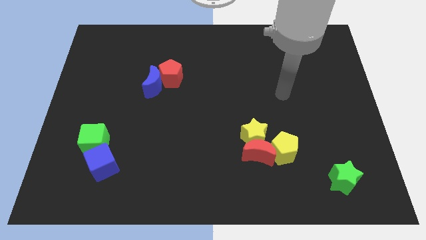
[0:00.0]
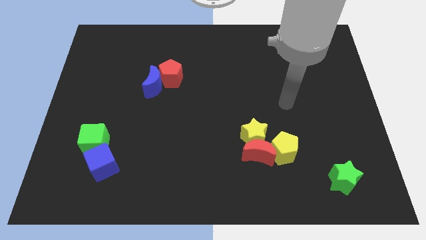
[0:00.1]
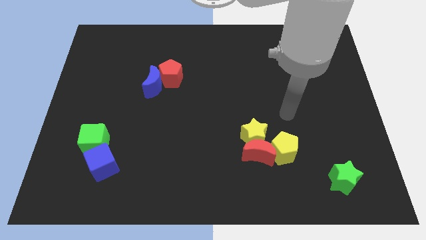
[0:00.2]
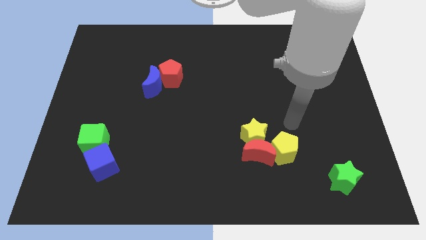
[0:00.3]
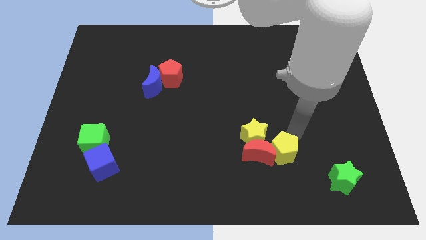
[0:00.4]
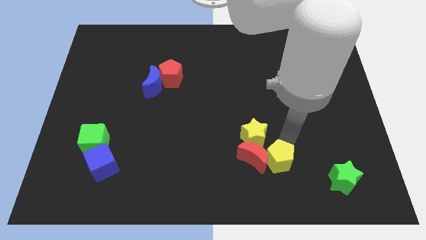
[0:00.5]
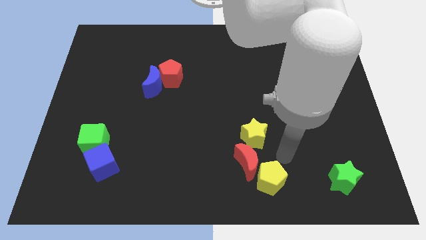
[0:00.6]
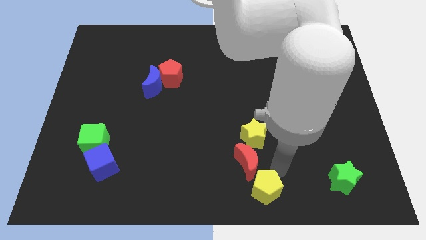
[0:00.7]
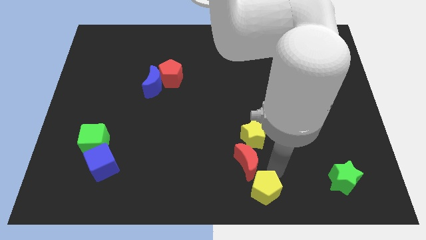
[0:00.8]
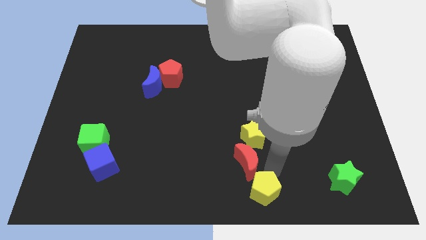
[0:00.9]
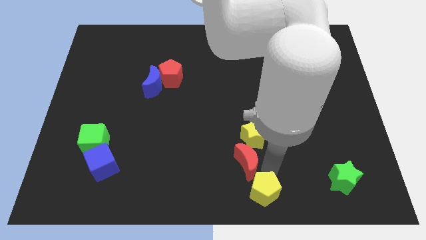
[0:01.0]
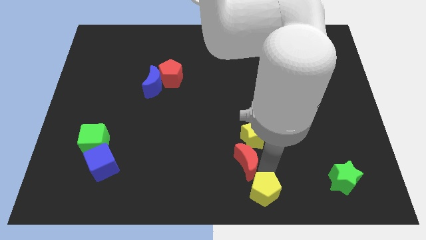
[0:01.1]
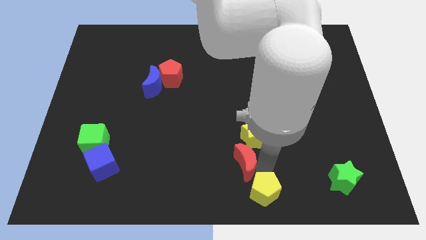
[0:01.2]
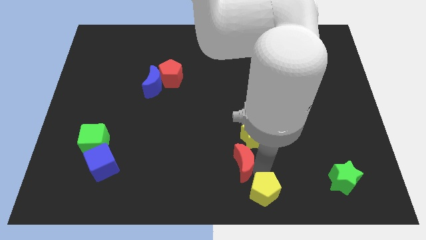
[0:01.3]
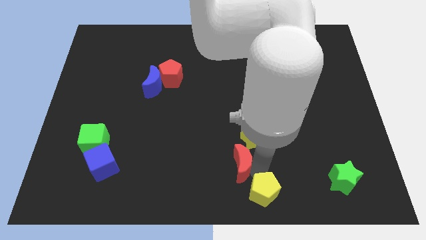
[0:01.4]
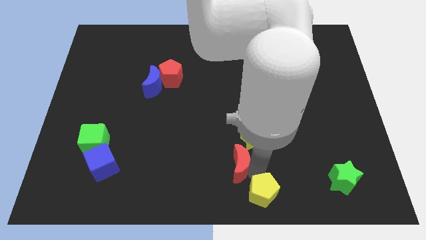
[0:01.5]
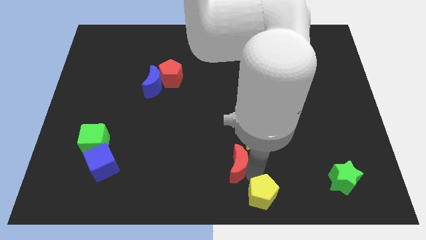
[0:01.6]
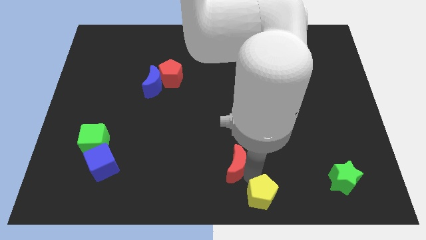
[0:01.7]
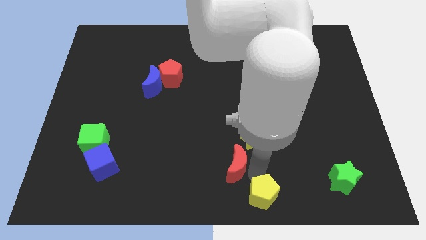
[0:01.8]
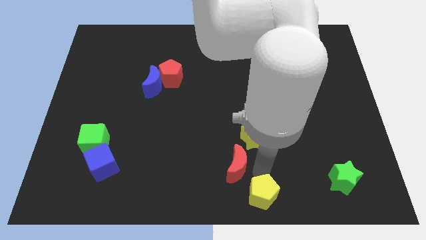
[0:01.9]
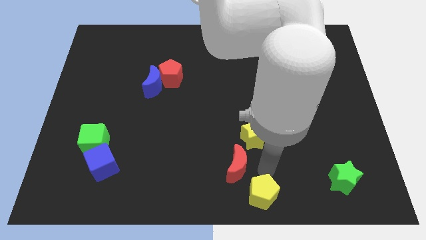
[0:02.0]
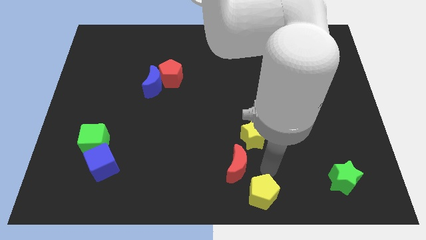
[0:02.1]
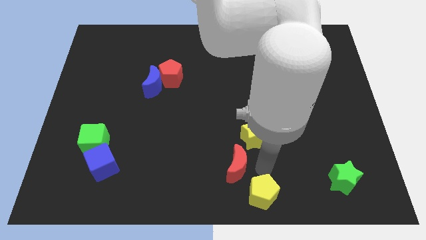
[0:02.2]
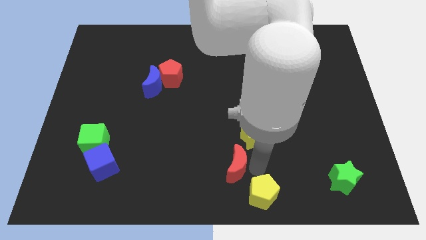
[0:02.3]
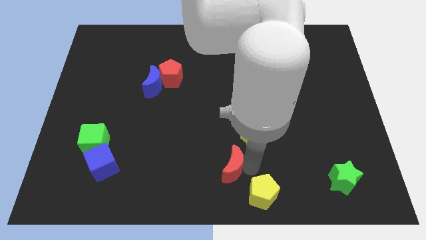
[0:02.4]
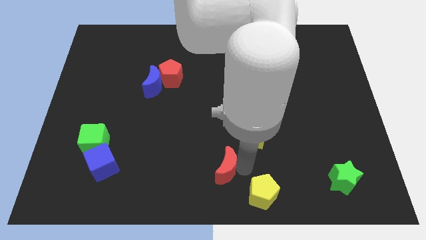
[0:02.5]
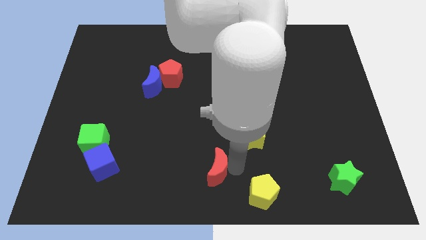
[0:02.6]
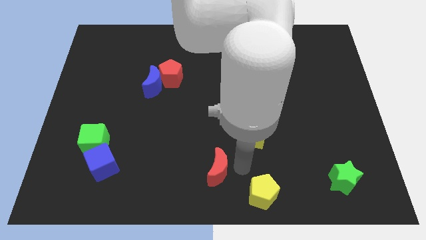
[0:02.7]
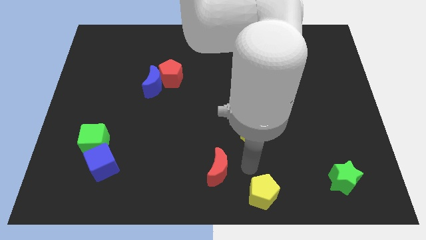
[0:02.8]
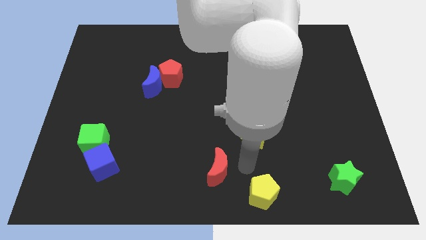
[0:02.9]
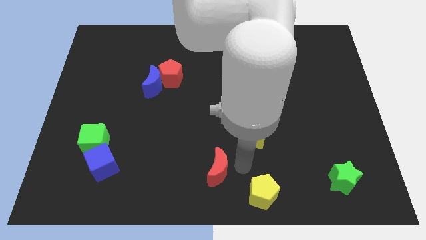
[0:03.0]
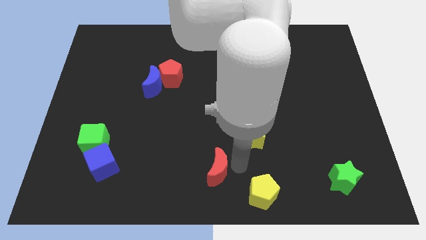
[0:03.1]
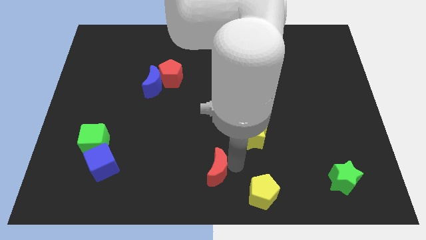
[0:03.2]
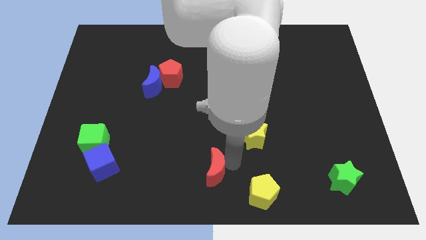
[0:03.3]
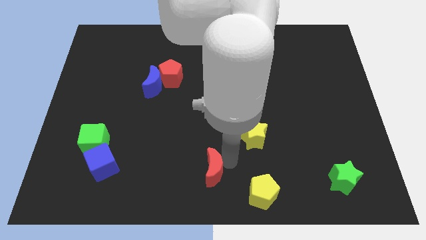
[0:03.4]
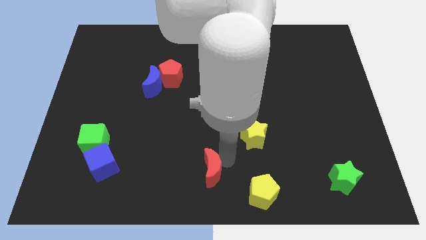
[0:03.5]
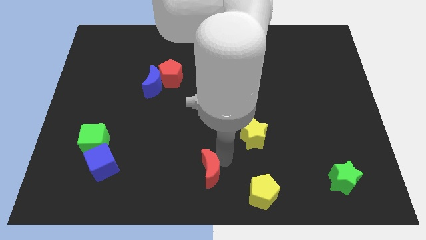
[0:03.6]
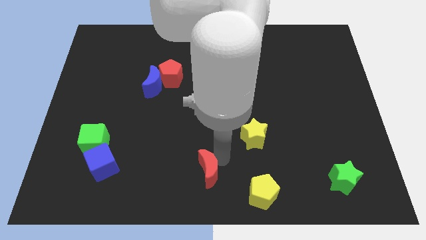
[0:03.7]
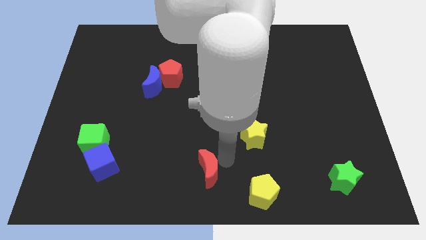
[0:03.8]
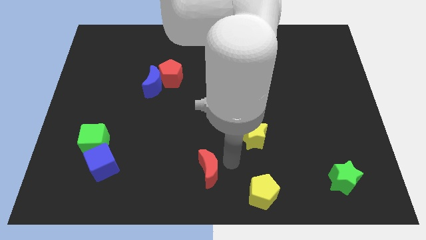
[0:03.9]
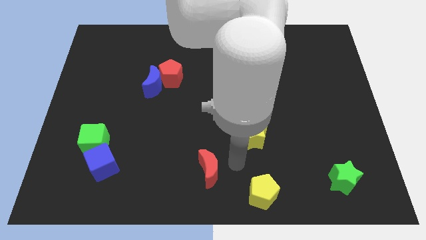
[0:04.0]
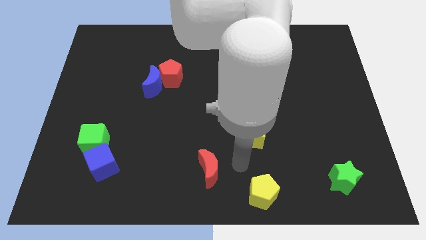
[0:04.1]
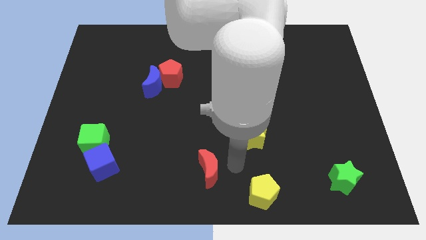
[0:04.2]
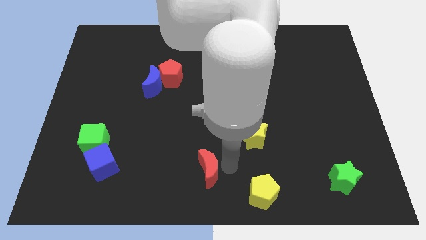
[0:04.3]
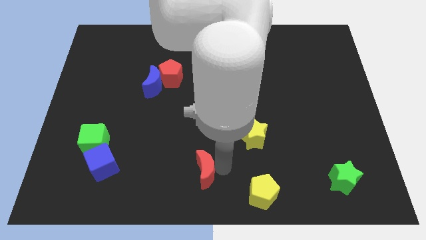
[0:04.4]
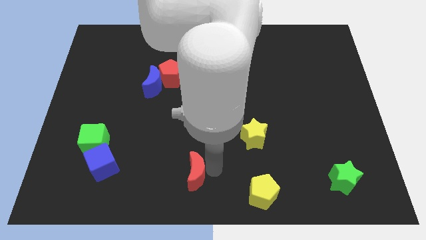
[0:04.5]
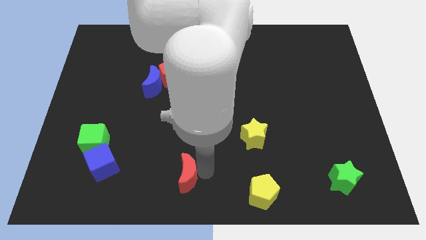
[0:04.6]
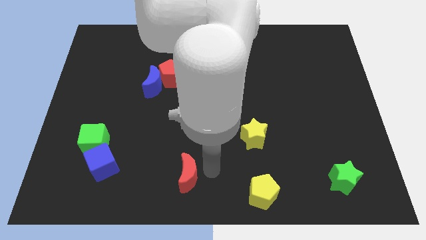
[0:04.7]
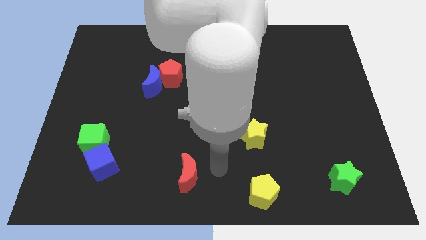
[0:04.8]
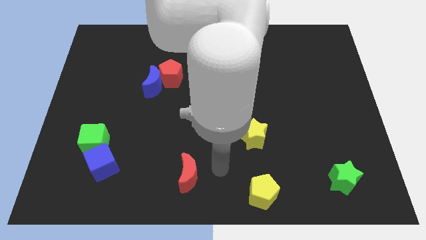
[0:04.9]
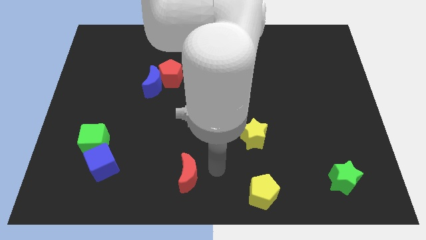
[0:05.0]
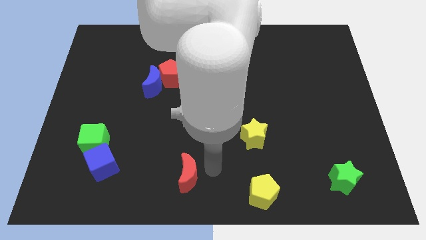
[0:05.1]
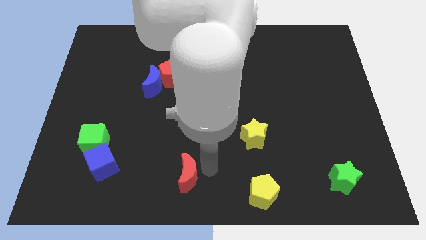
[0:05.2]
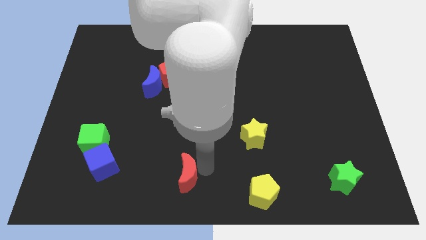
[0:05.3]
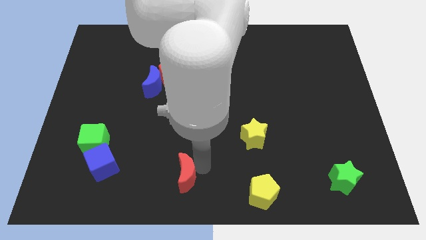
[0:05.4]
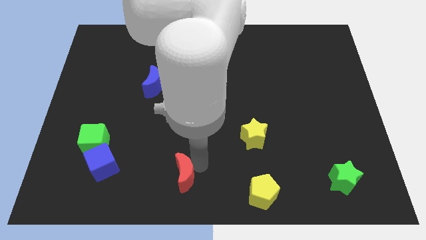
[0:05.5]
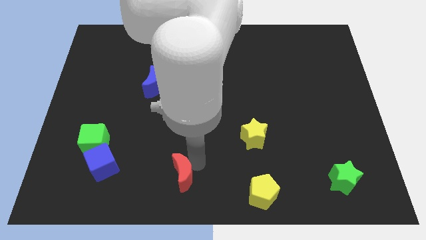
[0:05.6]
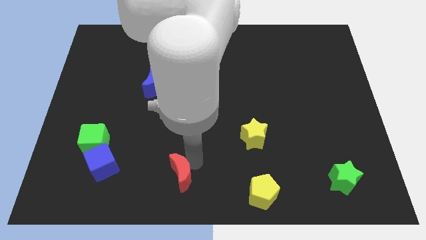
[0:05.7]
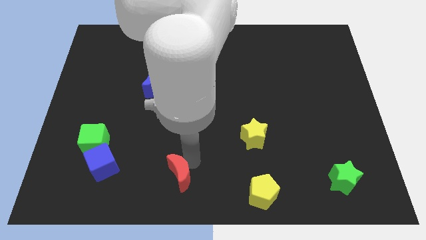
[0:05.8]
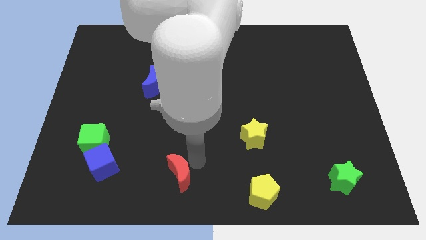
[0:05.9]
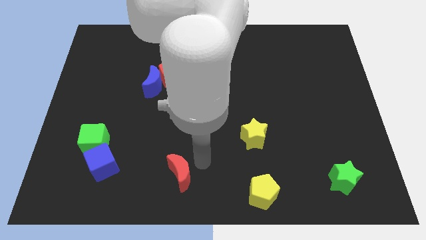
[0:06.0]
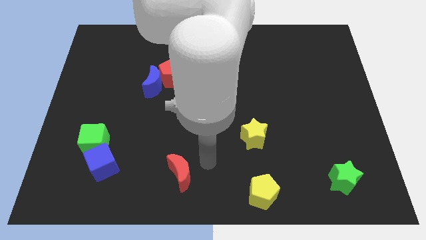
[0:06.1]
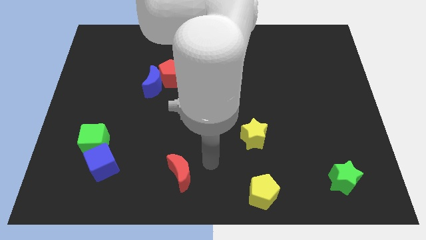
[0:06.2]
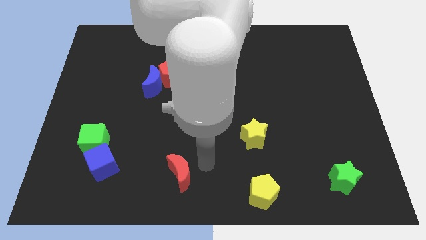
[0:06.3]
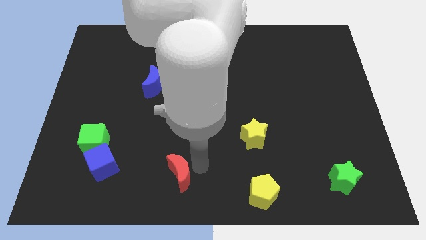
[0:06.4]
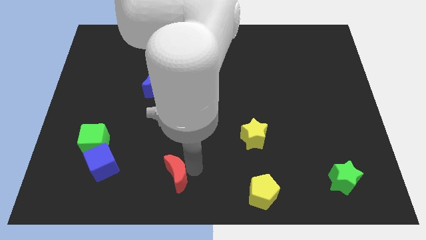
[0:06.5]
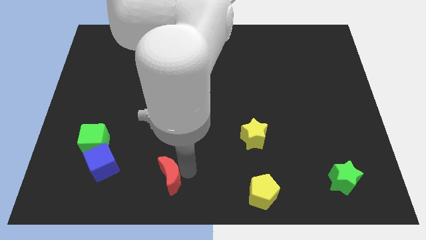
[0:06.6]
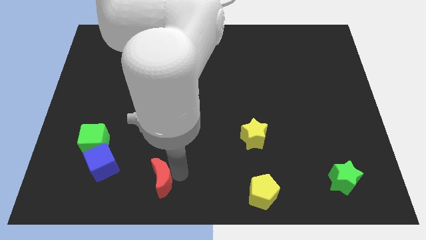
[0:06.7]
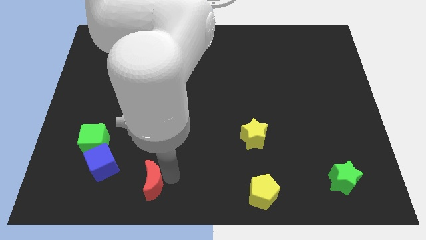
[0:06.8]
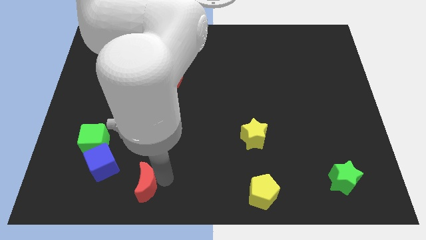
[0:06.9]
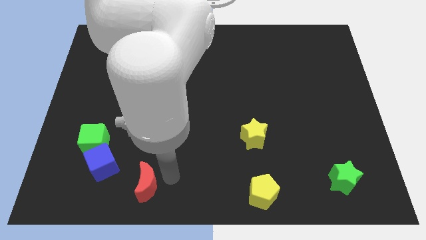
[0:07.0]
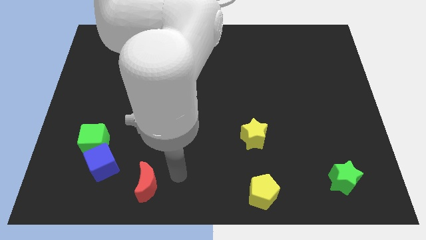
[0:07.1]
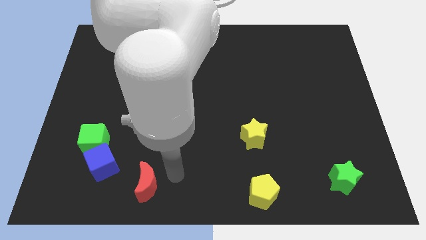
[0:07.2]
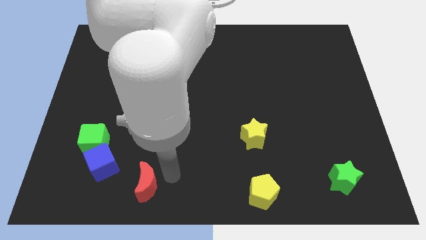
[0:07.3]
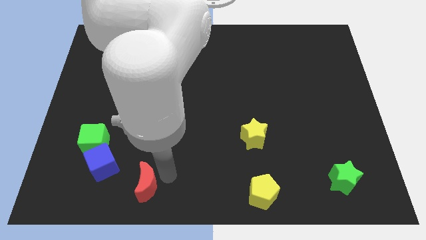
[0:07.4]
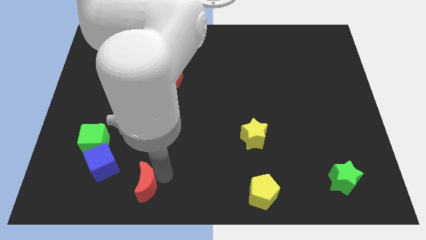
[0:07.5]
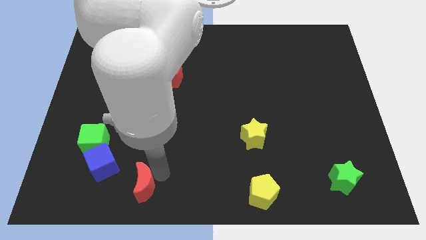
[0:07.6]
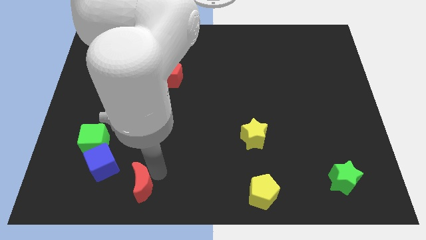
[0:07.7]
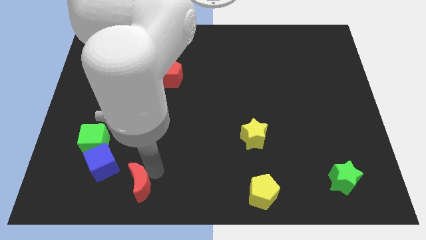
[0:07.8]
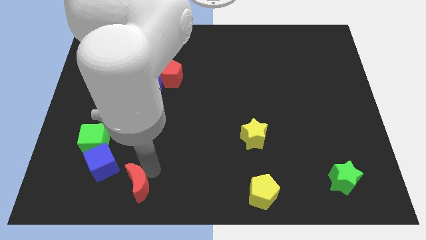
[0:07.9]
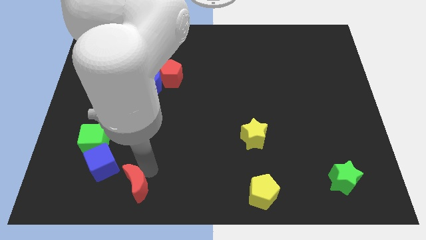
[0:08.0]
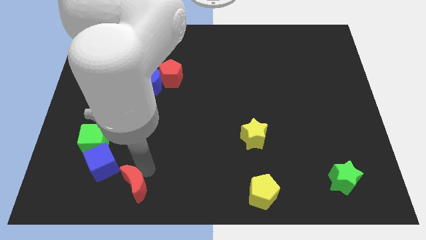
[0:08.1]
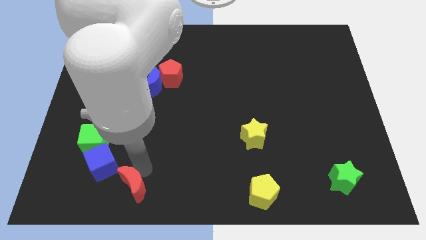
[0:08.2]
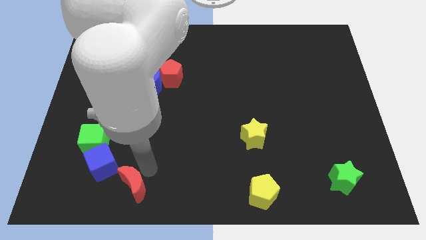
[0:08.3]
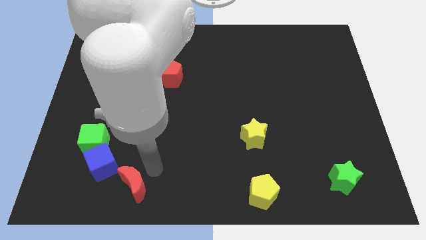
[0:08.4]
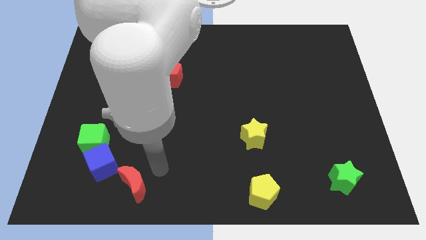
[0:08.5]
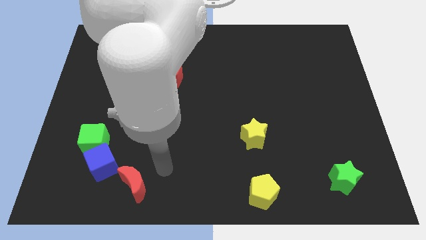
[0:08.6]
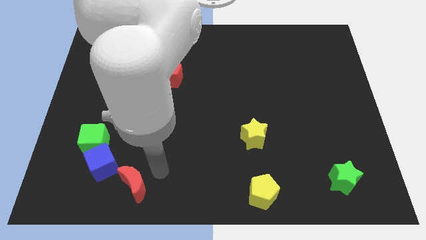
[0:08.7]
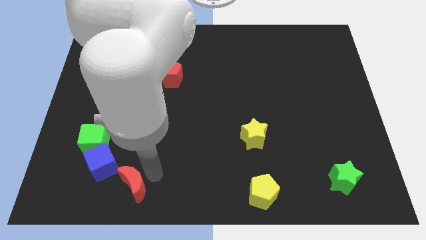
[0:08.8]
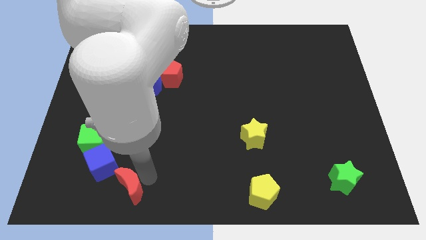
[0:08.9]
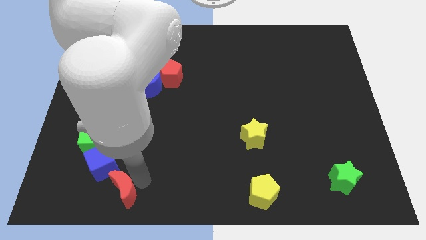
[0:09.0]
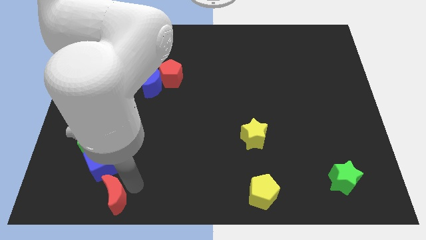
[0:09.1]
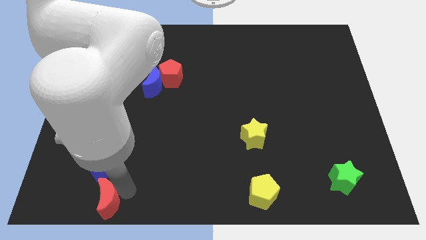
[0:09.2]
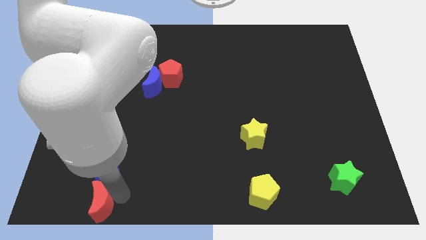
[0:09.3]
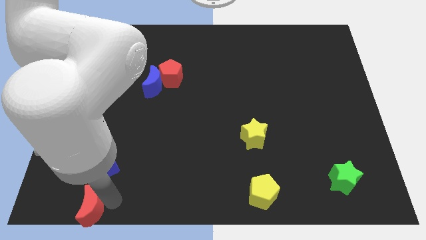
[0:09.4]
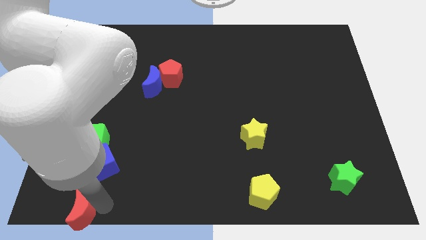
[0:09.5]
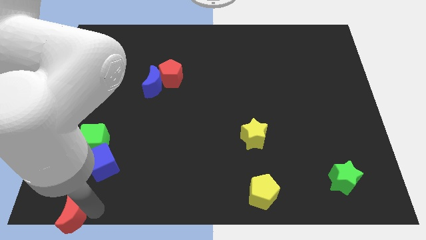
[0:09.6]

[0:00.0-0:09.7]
put the red moon to the bottom left corner
